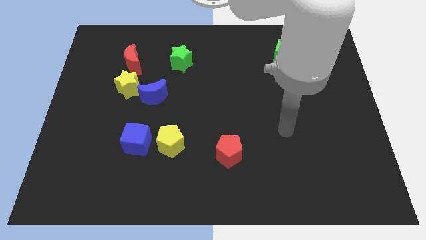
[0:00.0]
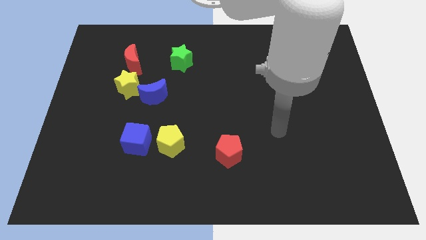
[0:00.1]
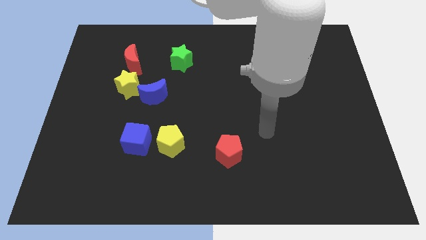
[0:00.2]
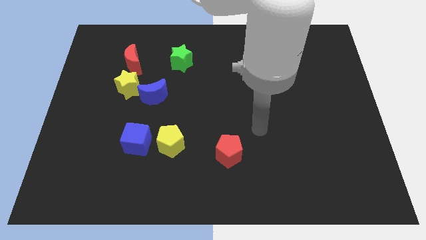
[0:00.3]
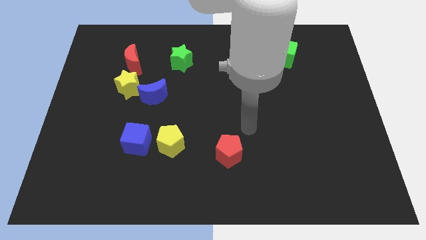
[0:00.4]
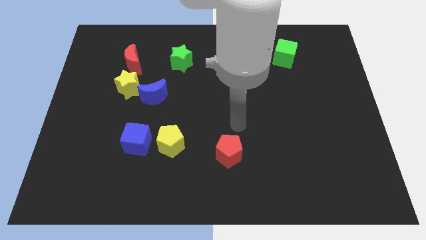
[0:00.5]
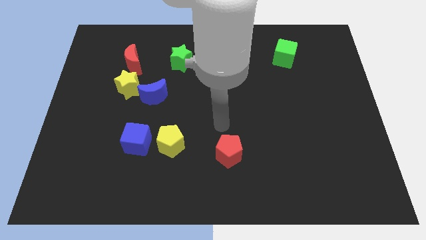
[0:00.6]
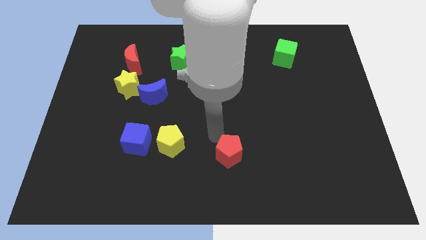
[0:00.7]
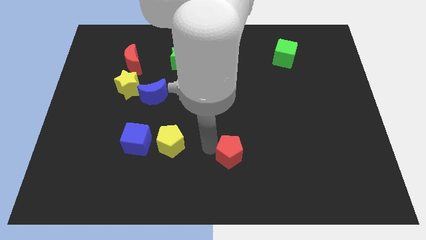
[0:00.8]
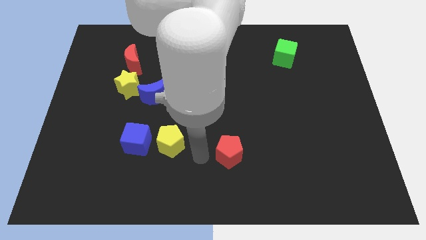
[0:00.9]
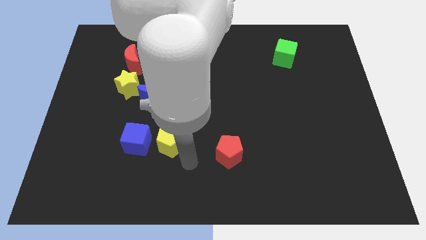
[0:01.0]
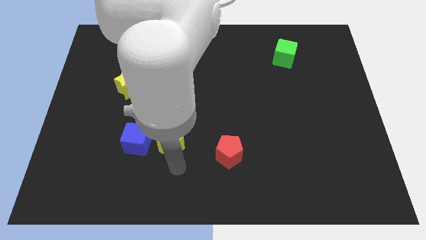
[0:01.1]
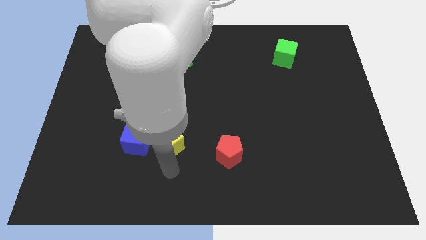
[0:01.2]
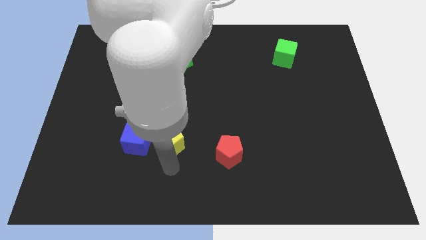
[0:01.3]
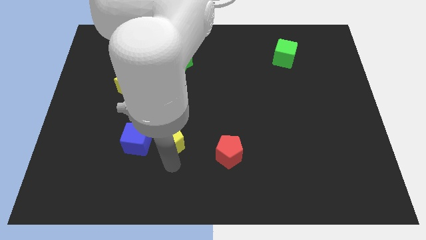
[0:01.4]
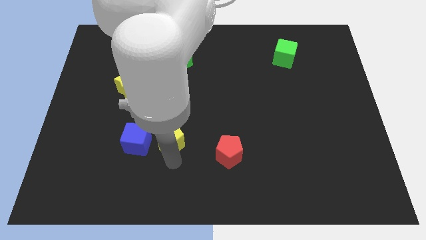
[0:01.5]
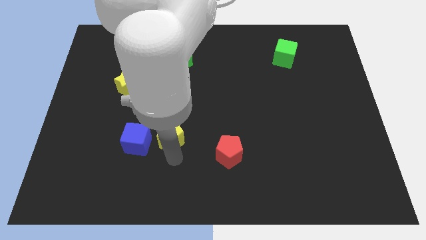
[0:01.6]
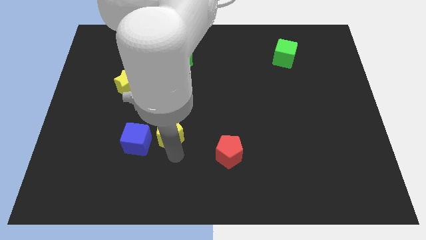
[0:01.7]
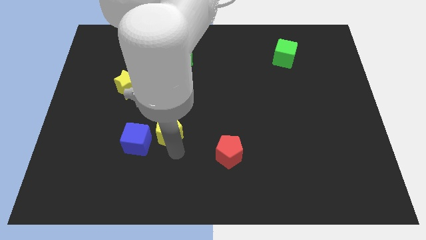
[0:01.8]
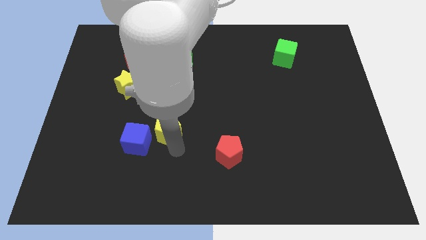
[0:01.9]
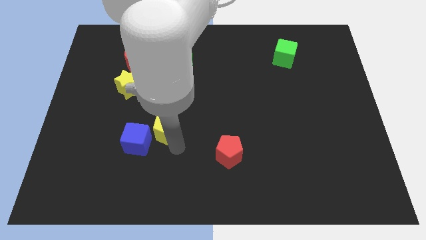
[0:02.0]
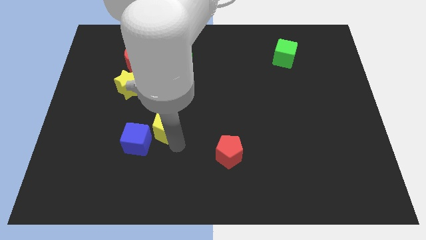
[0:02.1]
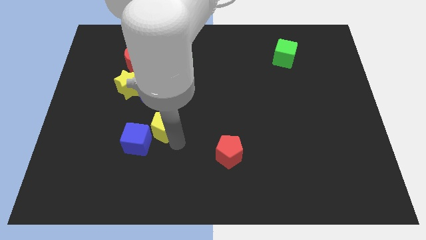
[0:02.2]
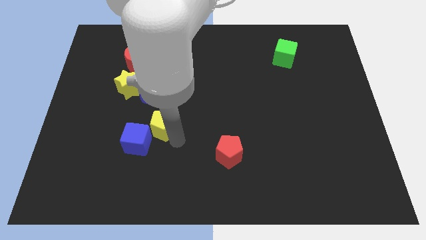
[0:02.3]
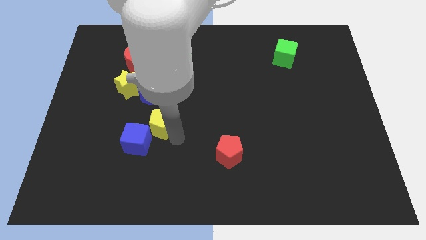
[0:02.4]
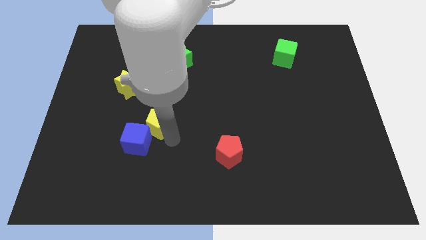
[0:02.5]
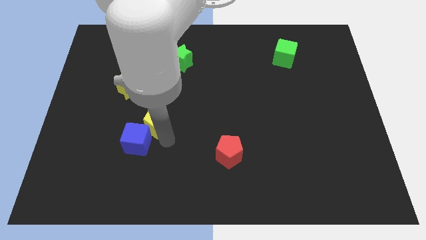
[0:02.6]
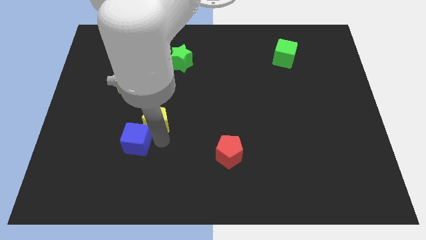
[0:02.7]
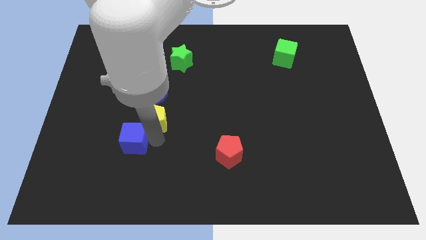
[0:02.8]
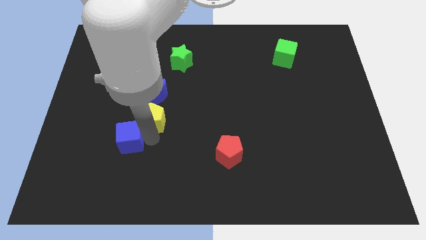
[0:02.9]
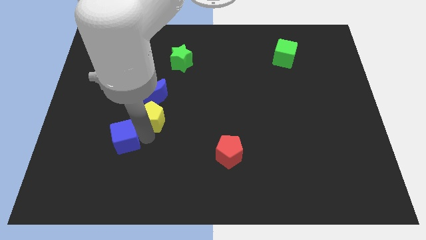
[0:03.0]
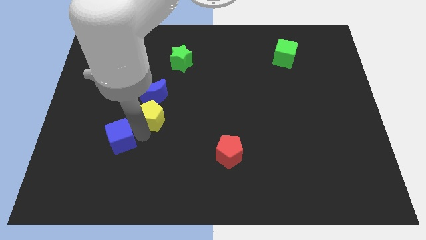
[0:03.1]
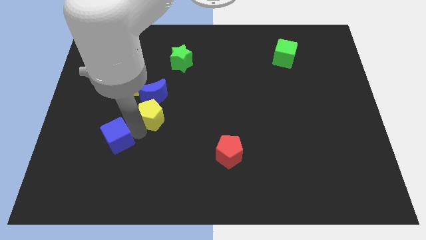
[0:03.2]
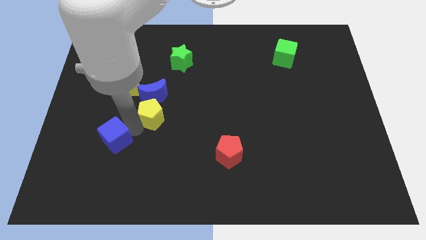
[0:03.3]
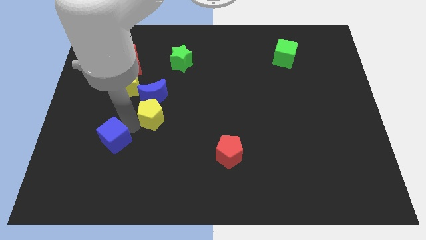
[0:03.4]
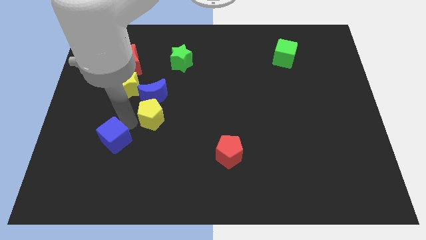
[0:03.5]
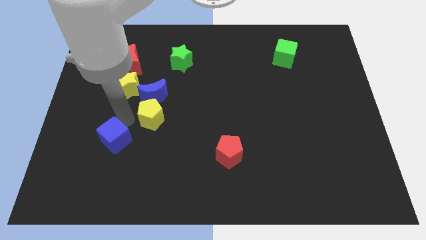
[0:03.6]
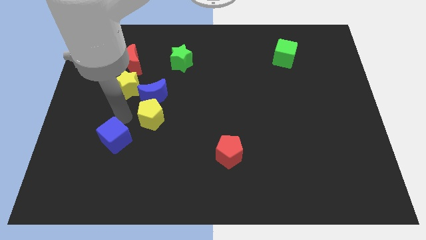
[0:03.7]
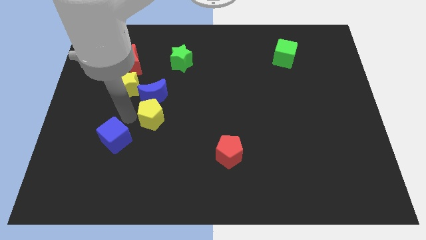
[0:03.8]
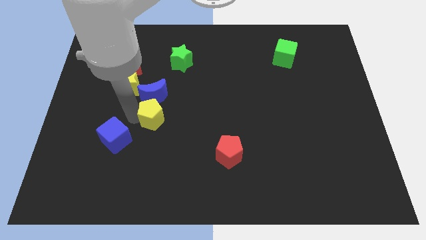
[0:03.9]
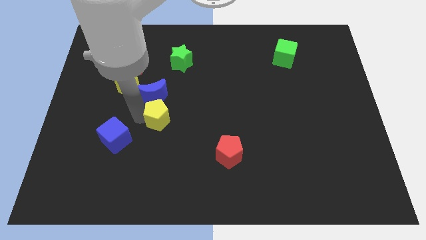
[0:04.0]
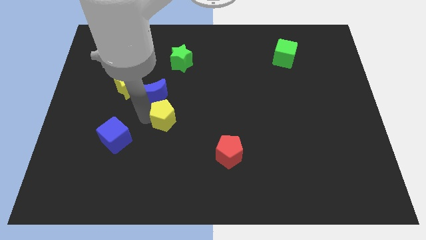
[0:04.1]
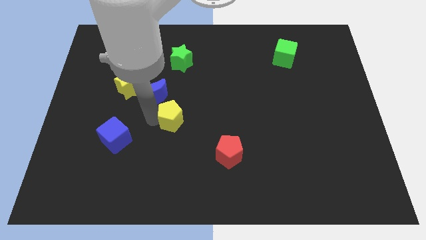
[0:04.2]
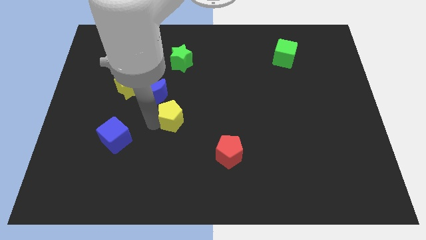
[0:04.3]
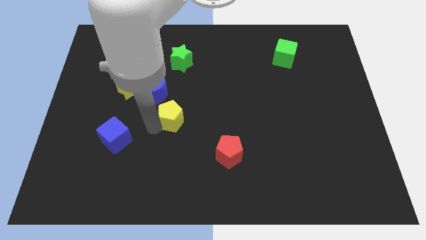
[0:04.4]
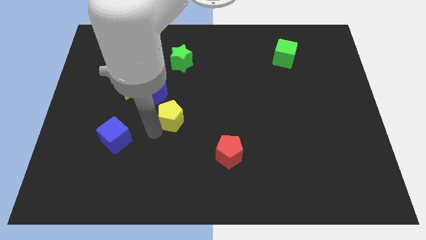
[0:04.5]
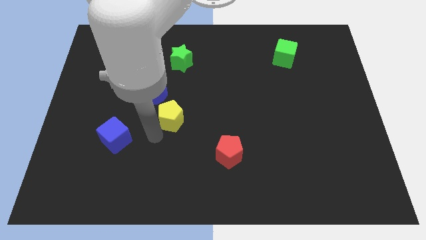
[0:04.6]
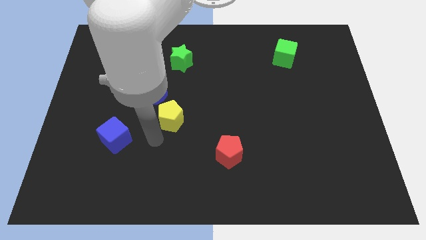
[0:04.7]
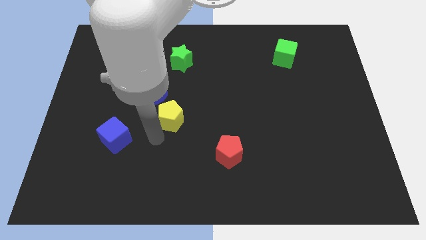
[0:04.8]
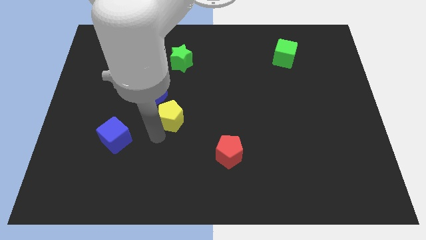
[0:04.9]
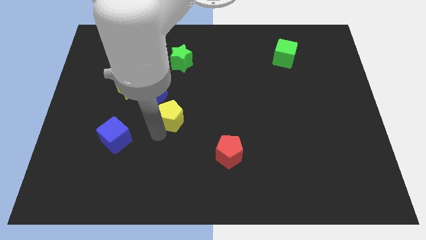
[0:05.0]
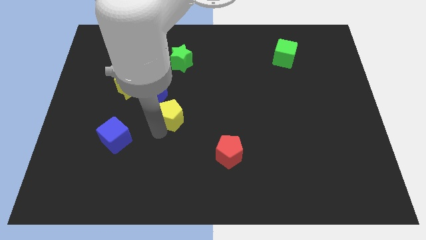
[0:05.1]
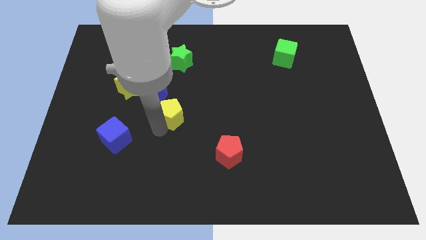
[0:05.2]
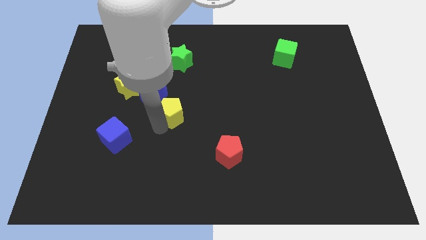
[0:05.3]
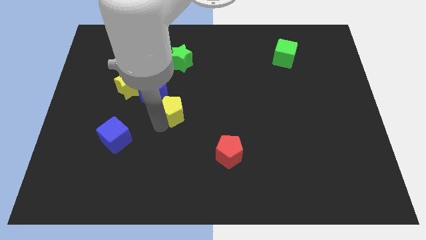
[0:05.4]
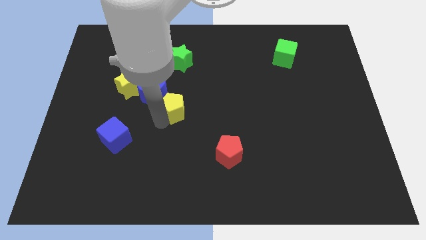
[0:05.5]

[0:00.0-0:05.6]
slide the yellow pentagon to the right of the blue moon

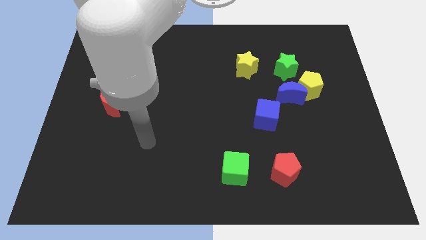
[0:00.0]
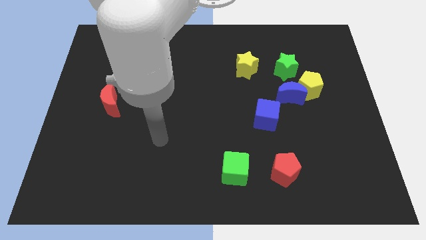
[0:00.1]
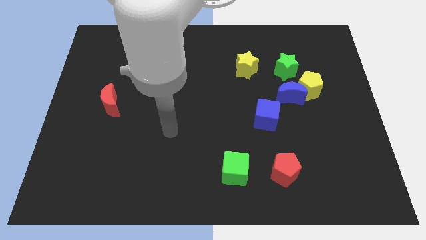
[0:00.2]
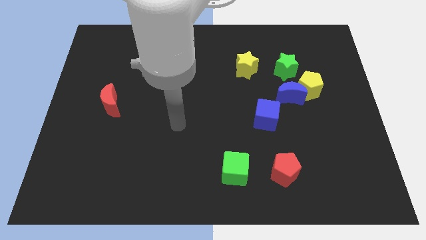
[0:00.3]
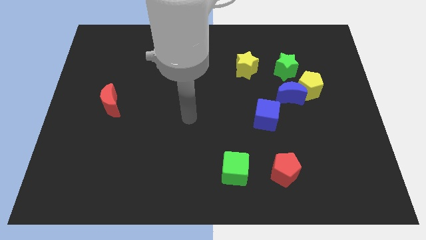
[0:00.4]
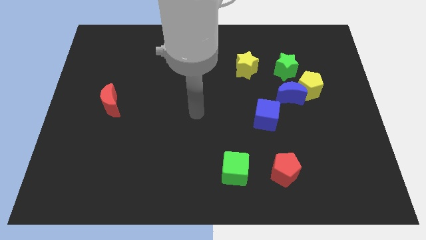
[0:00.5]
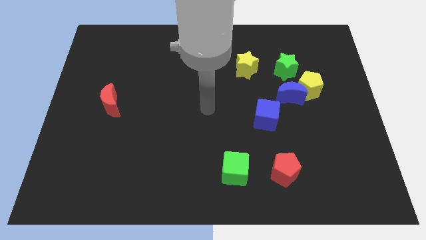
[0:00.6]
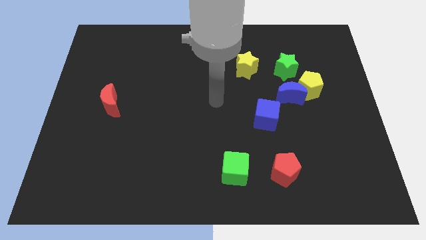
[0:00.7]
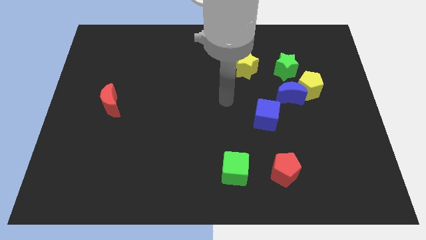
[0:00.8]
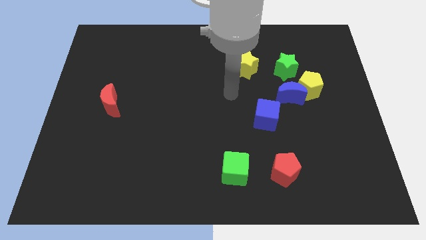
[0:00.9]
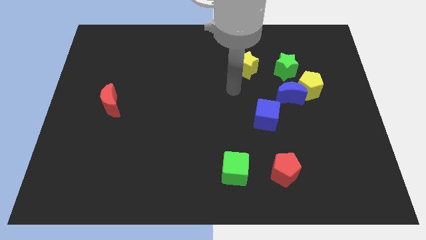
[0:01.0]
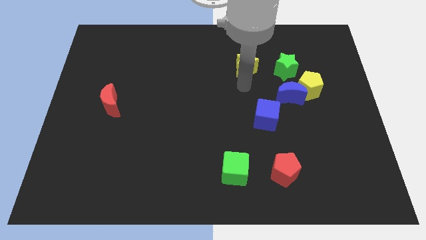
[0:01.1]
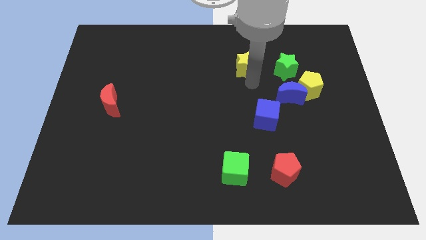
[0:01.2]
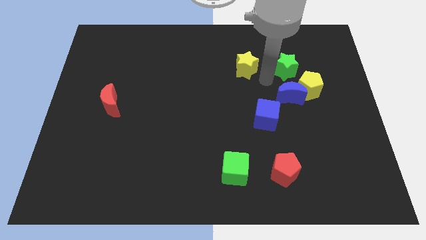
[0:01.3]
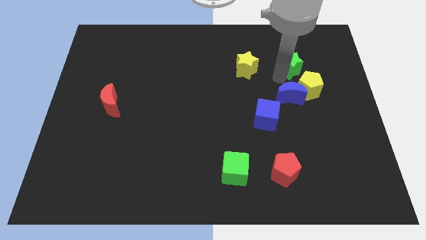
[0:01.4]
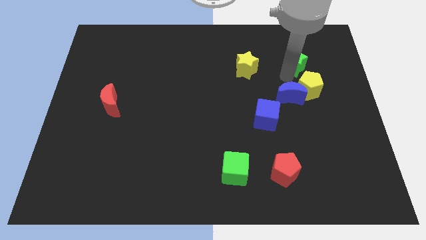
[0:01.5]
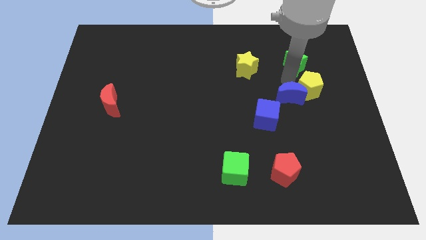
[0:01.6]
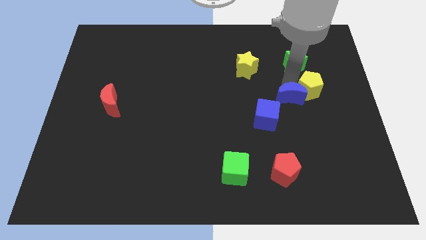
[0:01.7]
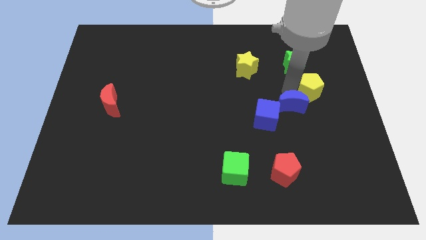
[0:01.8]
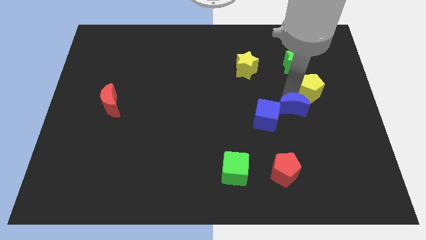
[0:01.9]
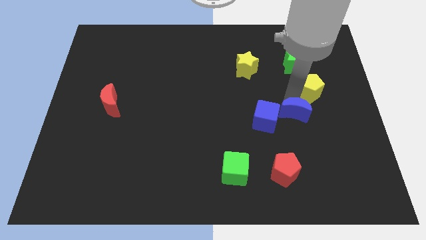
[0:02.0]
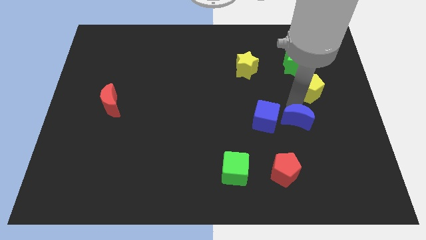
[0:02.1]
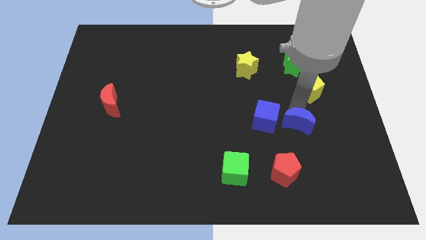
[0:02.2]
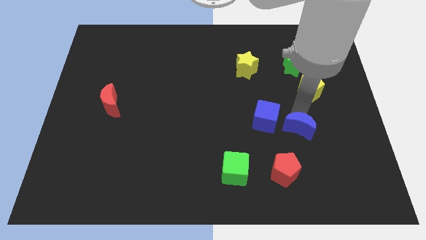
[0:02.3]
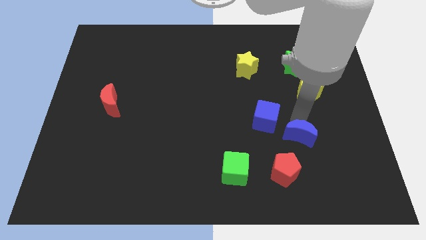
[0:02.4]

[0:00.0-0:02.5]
put the blue moon to the top right of the red pentagon
